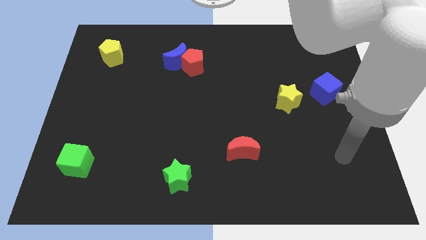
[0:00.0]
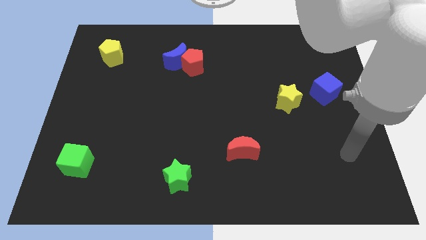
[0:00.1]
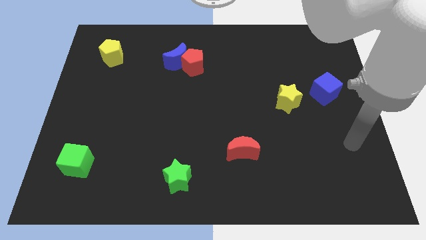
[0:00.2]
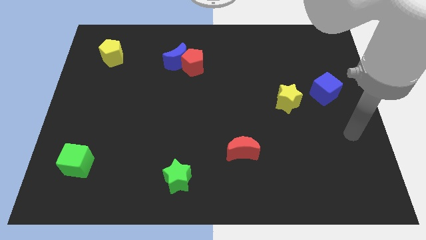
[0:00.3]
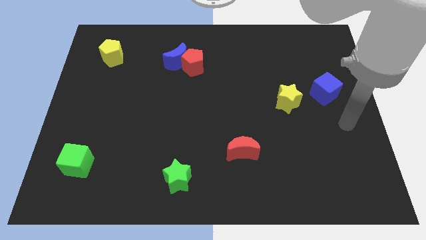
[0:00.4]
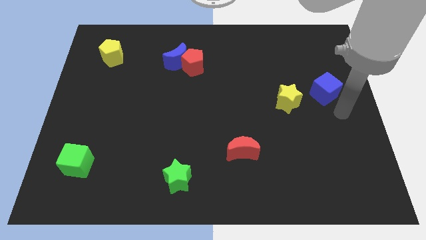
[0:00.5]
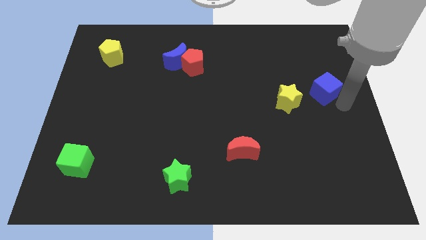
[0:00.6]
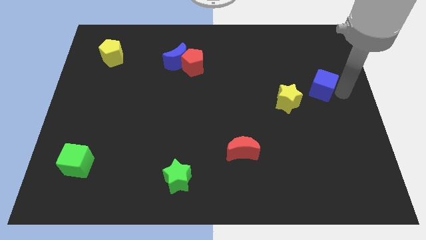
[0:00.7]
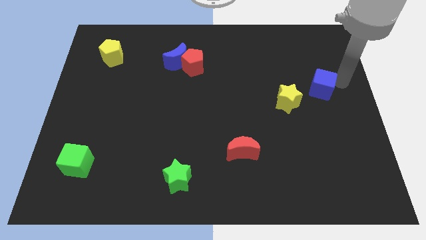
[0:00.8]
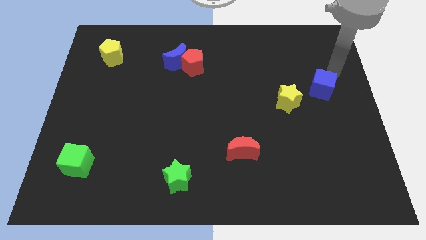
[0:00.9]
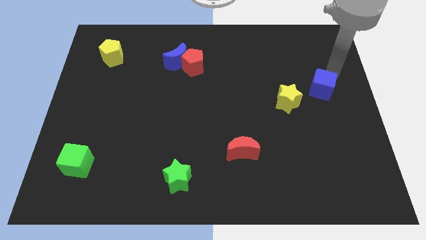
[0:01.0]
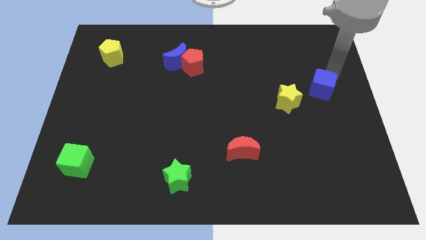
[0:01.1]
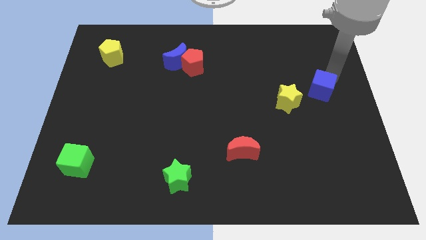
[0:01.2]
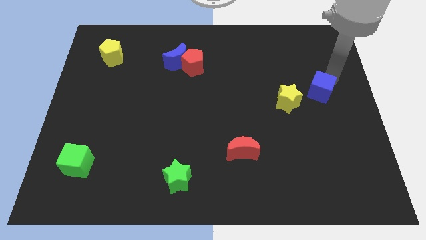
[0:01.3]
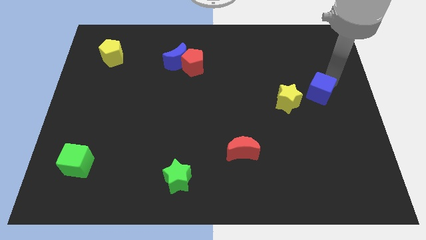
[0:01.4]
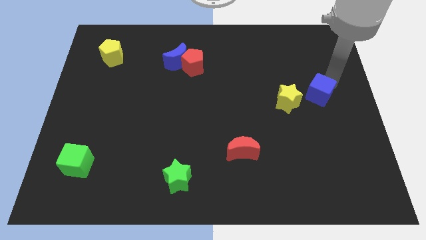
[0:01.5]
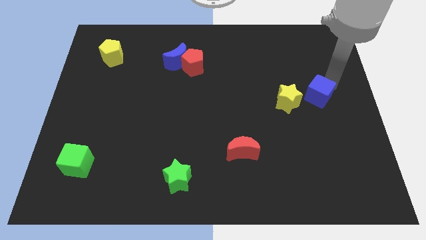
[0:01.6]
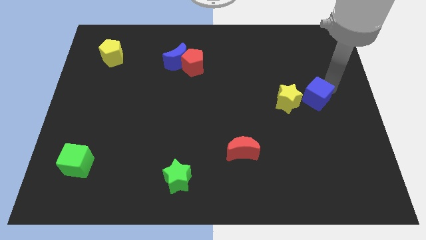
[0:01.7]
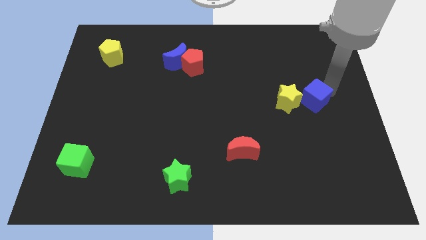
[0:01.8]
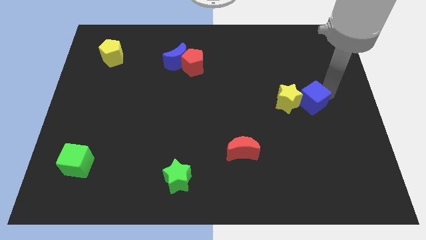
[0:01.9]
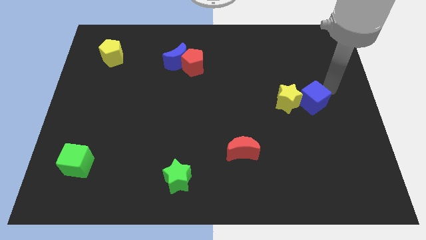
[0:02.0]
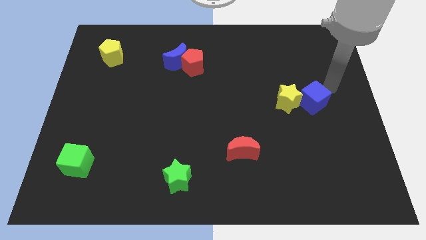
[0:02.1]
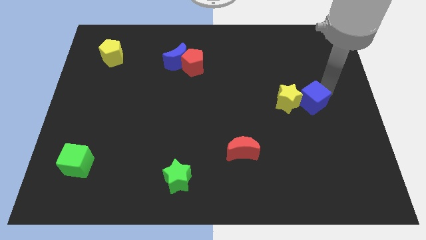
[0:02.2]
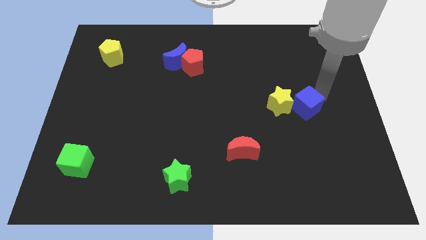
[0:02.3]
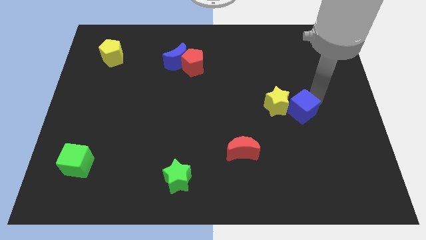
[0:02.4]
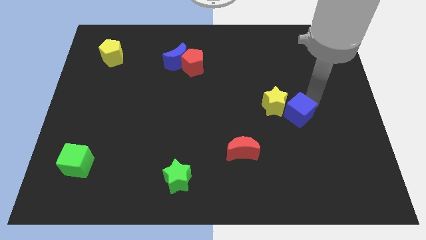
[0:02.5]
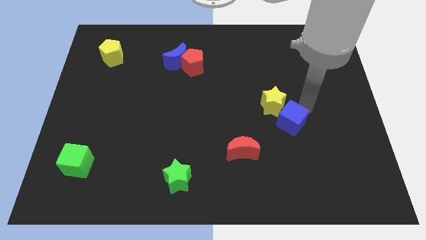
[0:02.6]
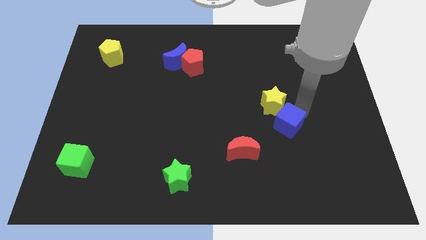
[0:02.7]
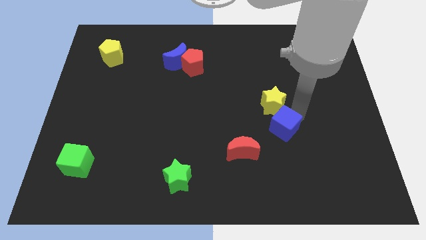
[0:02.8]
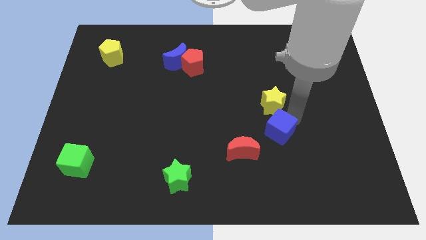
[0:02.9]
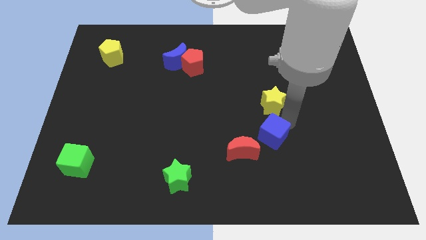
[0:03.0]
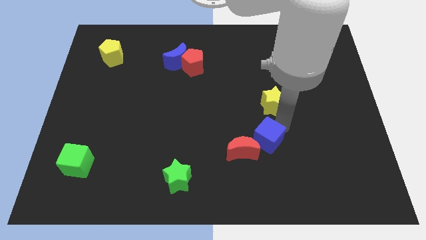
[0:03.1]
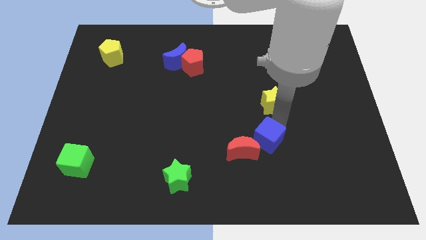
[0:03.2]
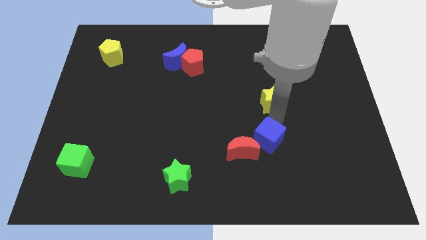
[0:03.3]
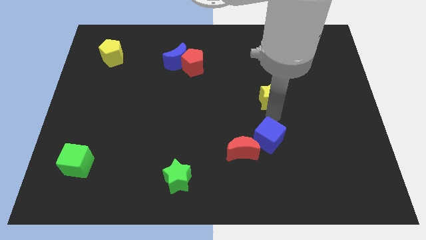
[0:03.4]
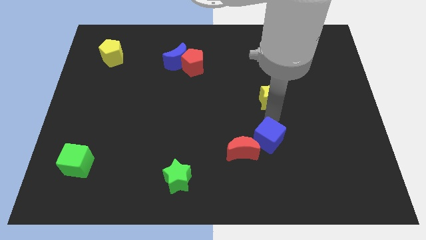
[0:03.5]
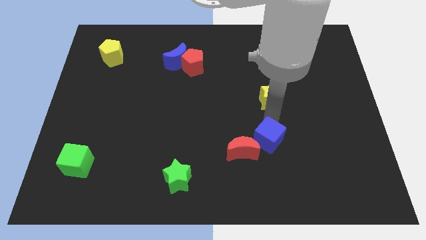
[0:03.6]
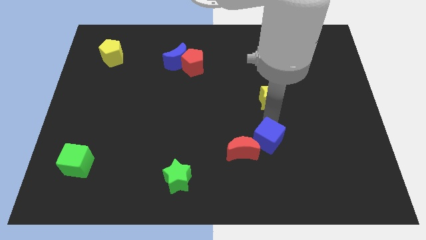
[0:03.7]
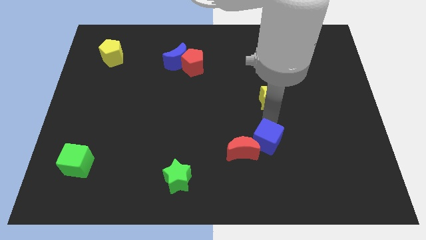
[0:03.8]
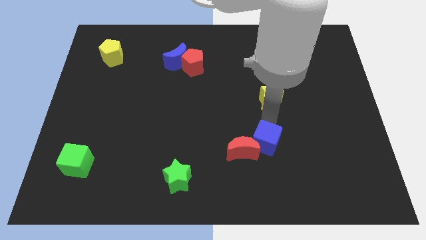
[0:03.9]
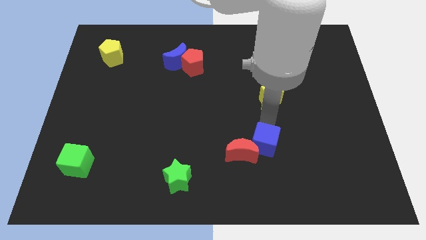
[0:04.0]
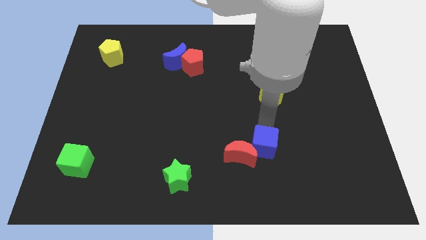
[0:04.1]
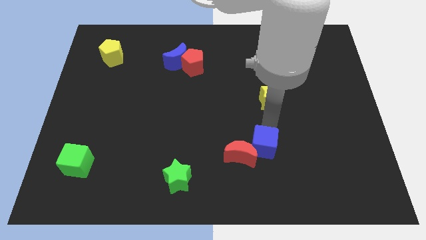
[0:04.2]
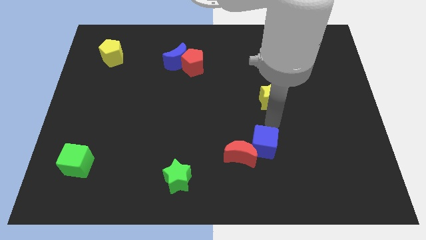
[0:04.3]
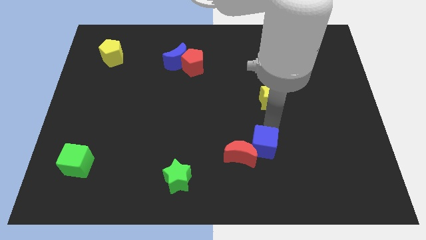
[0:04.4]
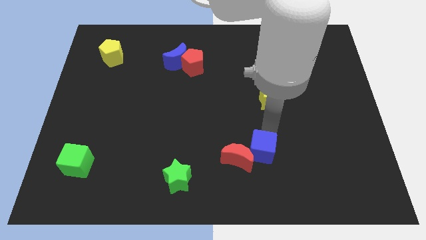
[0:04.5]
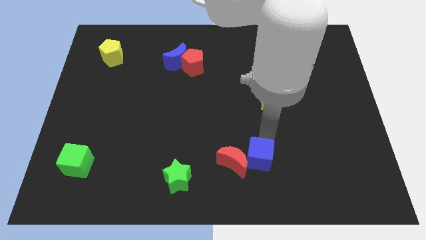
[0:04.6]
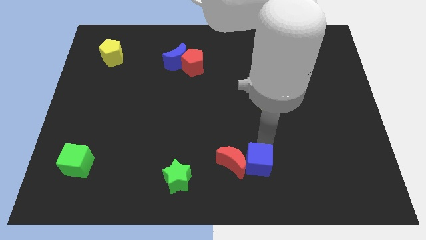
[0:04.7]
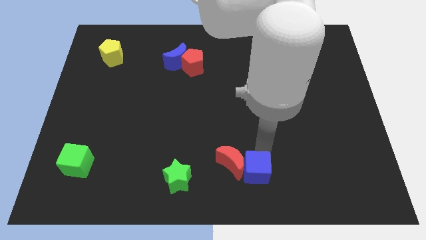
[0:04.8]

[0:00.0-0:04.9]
put the blue cube to the bottom side

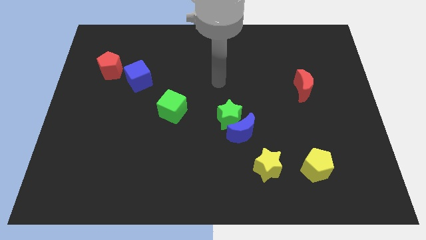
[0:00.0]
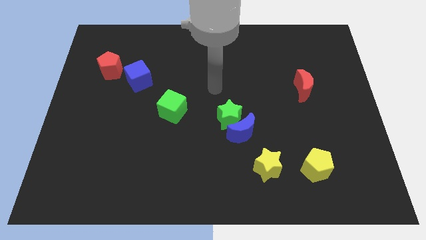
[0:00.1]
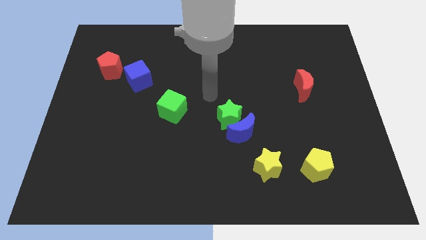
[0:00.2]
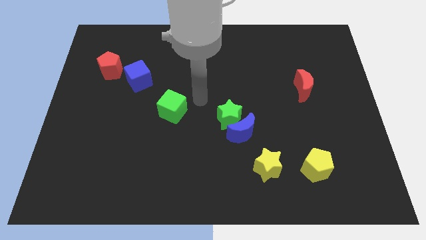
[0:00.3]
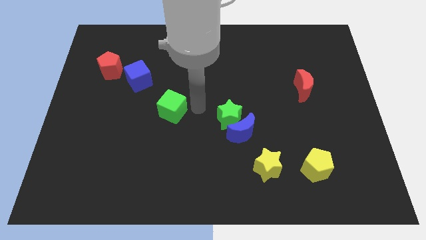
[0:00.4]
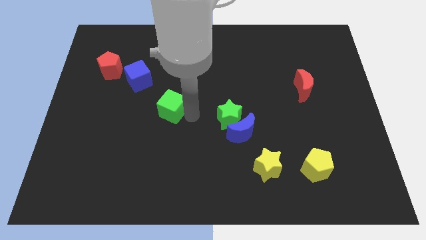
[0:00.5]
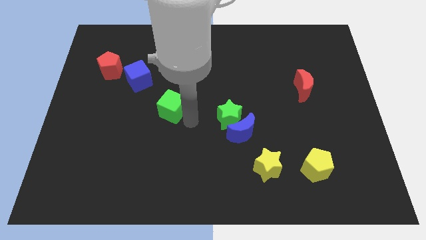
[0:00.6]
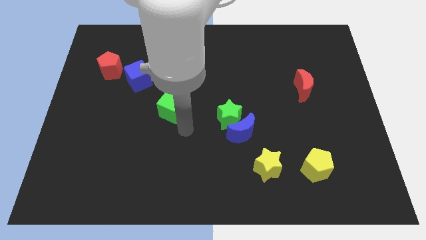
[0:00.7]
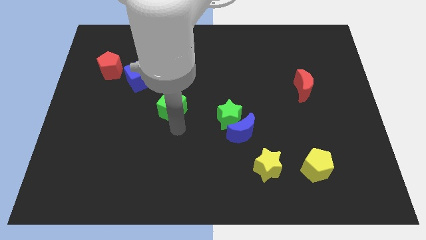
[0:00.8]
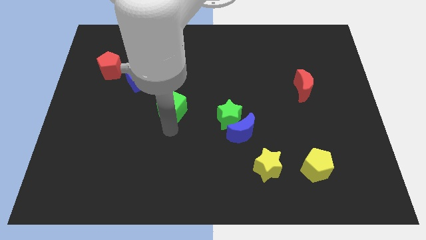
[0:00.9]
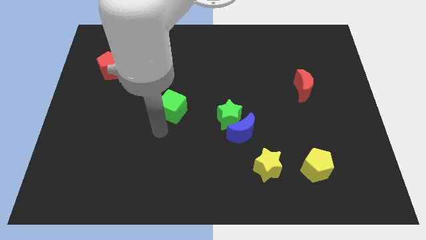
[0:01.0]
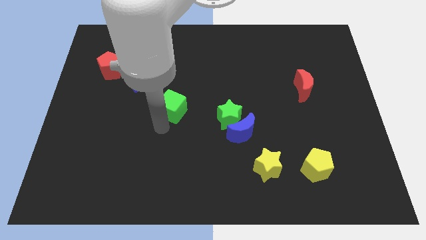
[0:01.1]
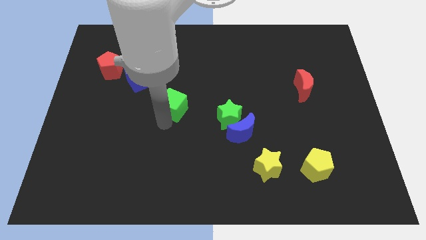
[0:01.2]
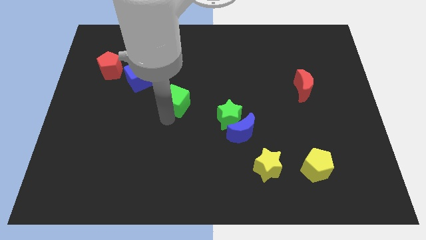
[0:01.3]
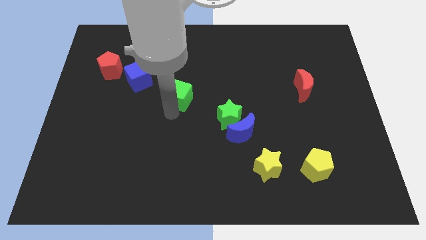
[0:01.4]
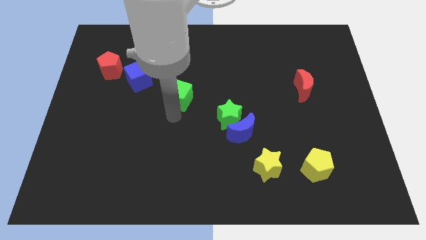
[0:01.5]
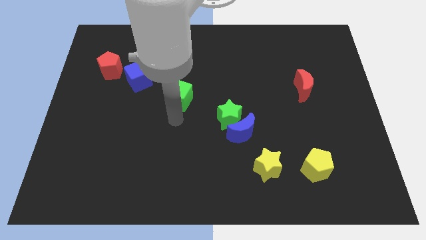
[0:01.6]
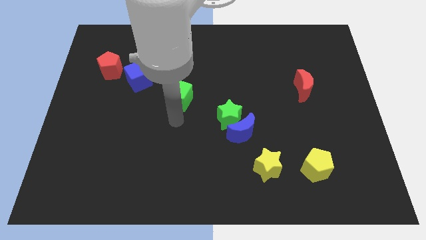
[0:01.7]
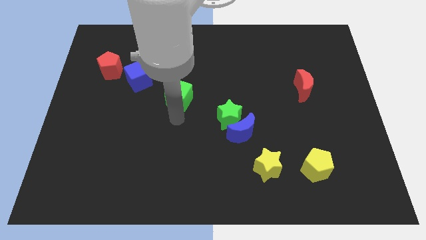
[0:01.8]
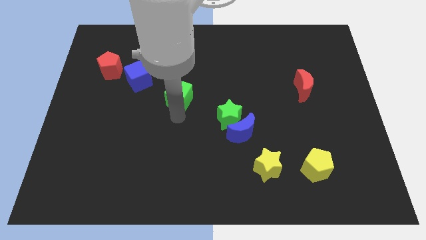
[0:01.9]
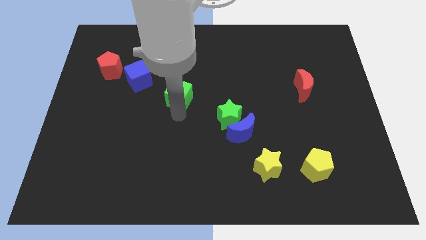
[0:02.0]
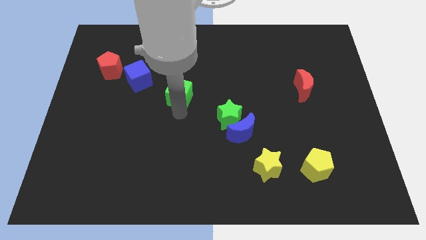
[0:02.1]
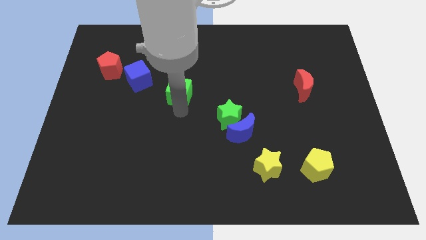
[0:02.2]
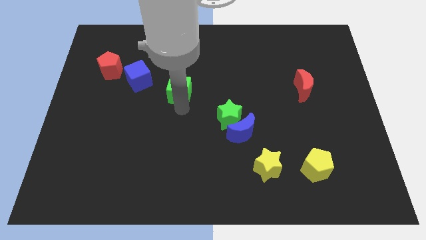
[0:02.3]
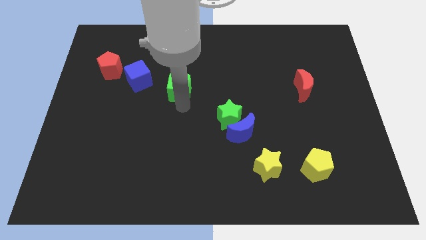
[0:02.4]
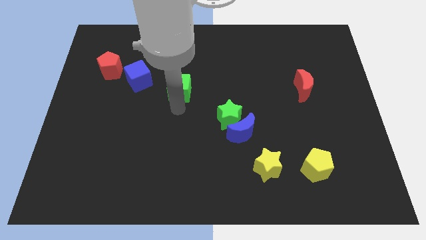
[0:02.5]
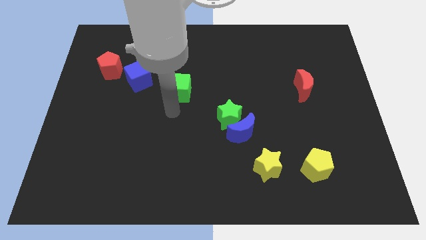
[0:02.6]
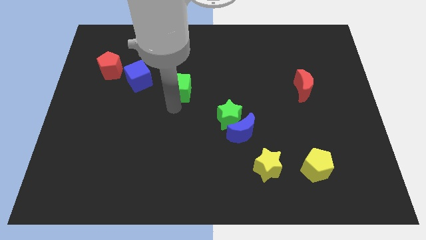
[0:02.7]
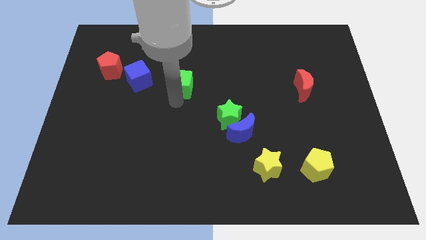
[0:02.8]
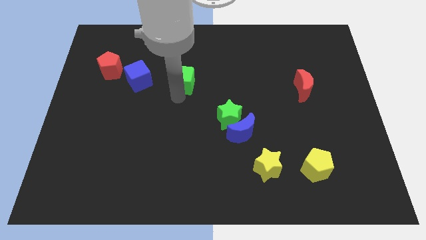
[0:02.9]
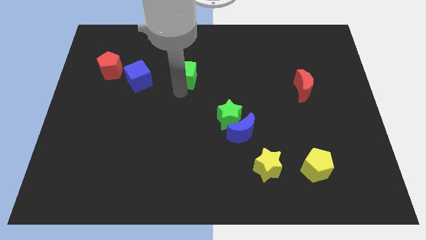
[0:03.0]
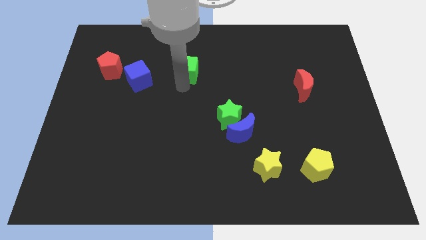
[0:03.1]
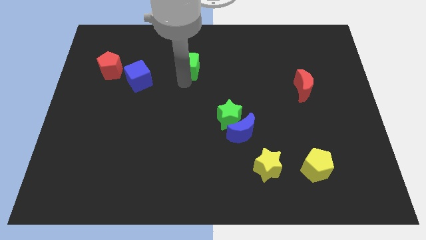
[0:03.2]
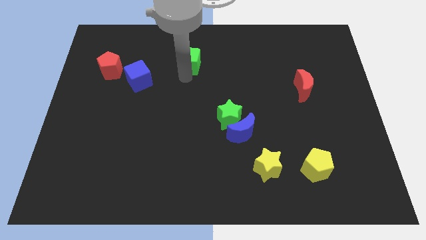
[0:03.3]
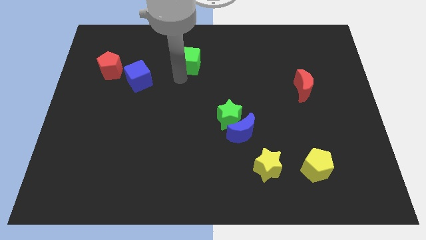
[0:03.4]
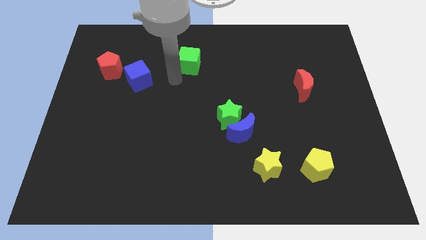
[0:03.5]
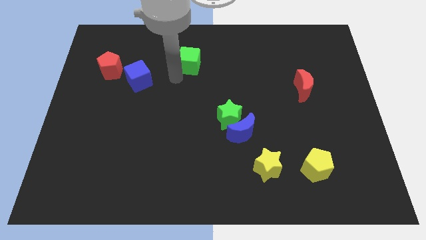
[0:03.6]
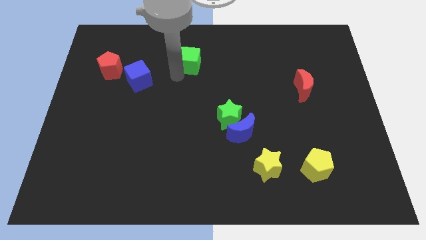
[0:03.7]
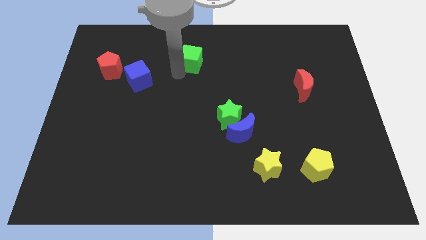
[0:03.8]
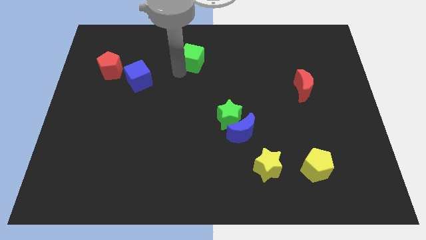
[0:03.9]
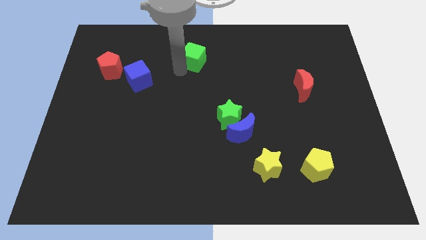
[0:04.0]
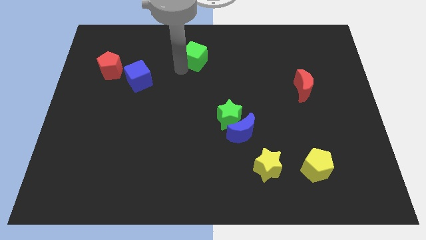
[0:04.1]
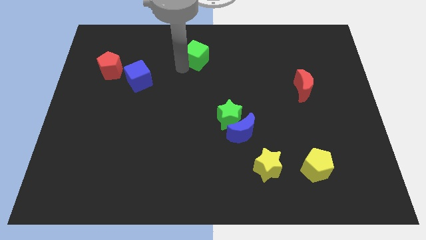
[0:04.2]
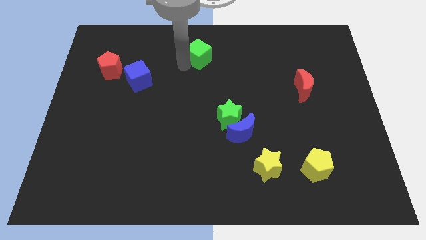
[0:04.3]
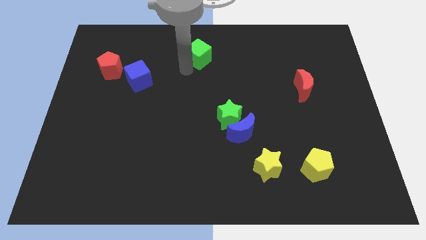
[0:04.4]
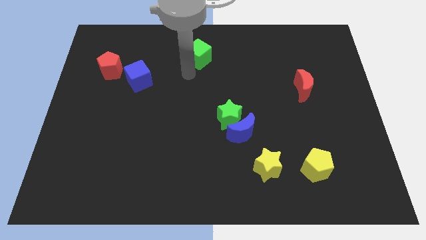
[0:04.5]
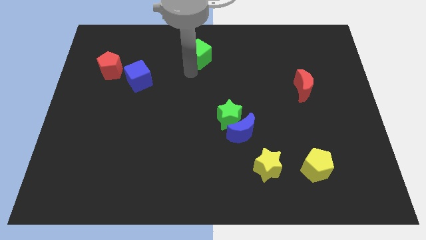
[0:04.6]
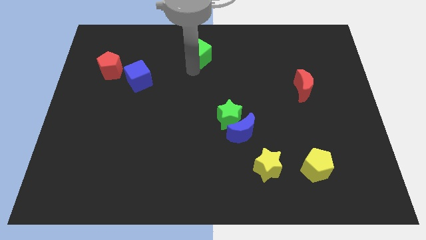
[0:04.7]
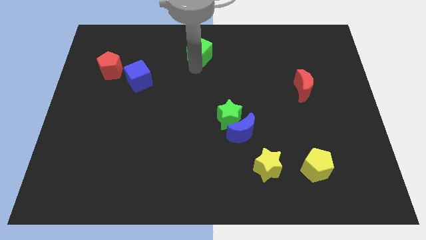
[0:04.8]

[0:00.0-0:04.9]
move the green cube to the top
